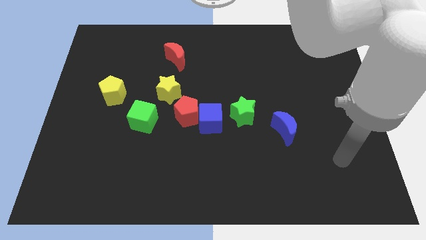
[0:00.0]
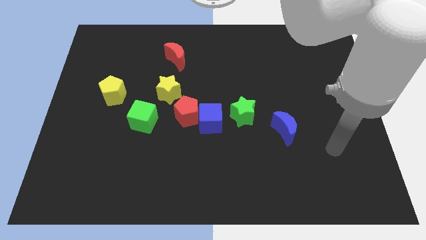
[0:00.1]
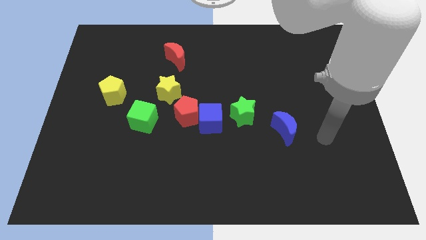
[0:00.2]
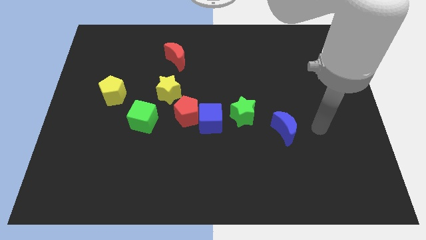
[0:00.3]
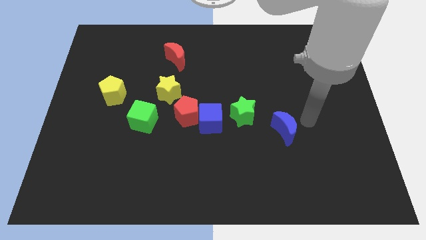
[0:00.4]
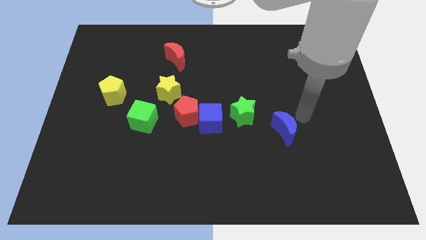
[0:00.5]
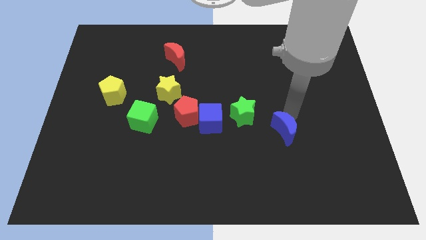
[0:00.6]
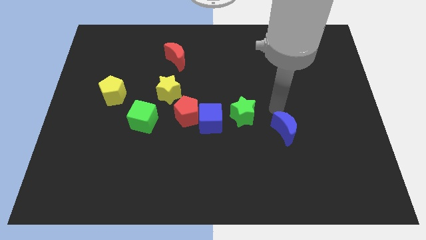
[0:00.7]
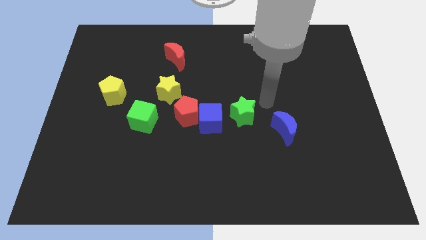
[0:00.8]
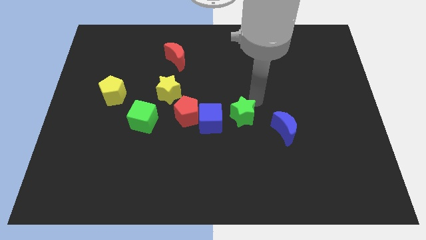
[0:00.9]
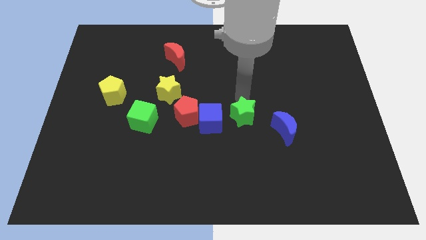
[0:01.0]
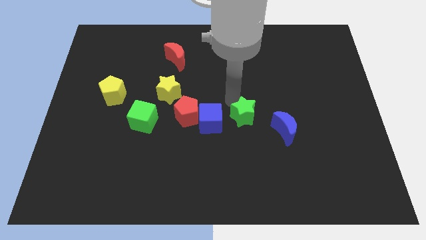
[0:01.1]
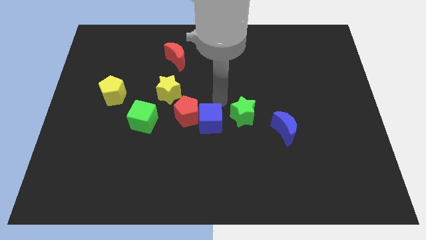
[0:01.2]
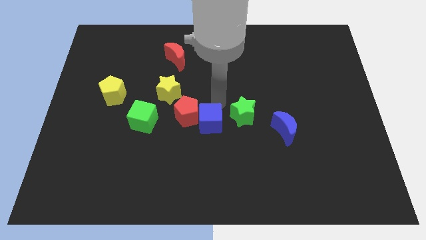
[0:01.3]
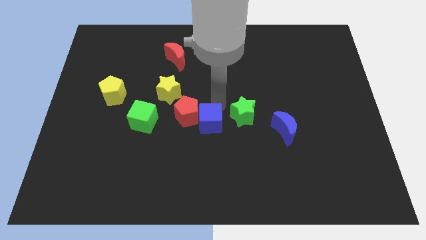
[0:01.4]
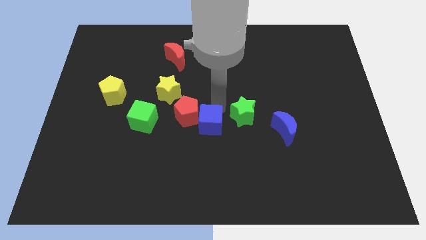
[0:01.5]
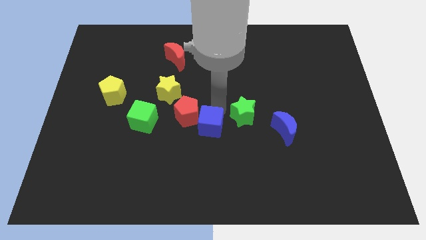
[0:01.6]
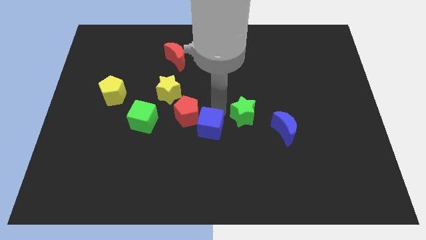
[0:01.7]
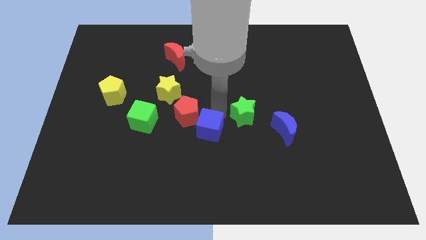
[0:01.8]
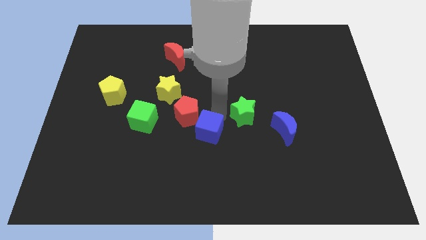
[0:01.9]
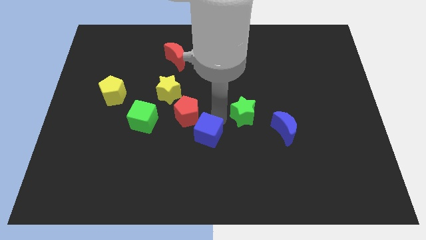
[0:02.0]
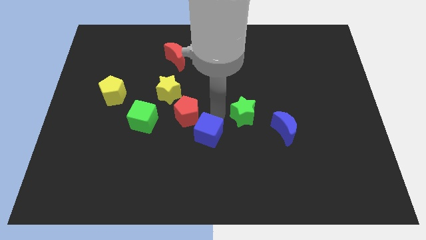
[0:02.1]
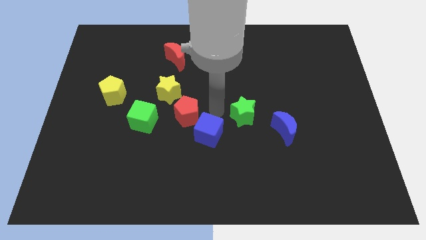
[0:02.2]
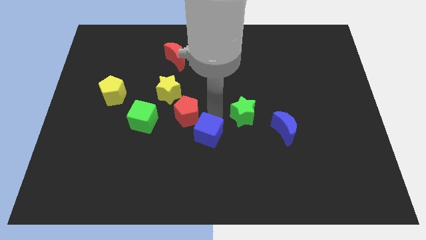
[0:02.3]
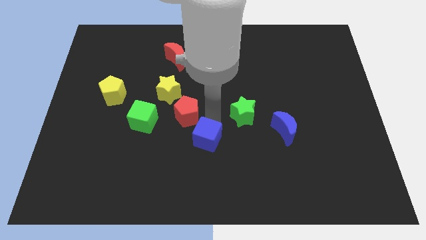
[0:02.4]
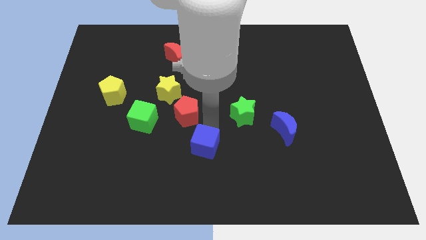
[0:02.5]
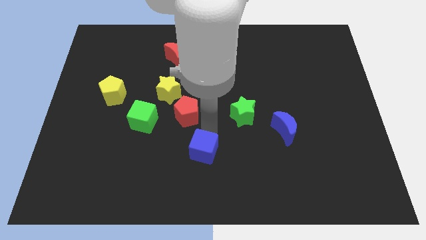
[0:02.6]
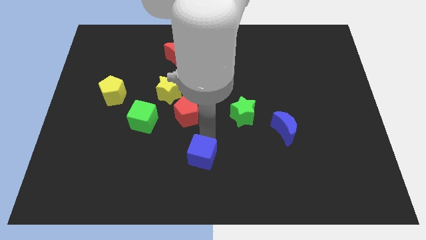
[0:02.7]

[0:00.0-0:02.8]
move the blue cube away from the red pentagon and green star

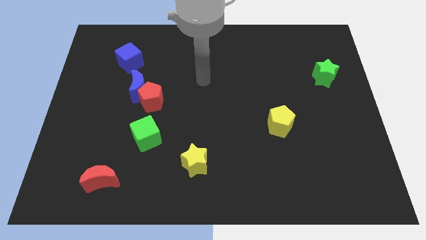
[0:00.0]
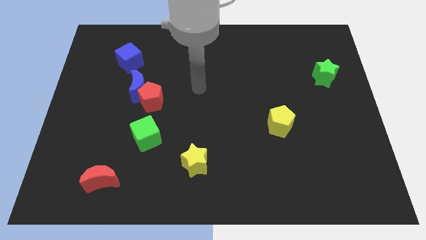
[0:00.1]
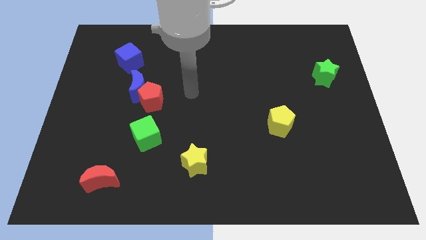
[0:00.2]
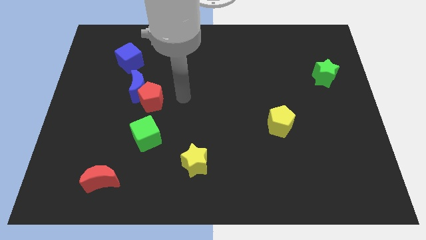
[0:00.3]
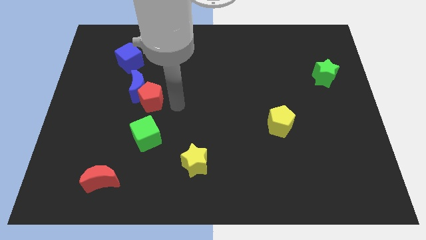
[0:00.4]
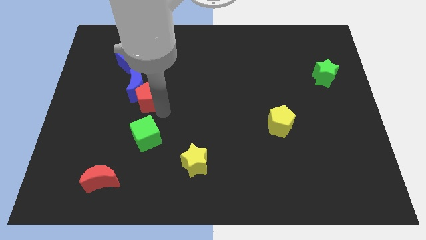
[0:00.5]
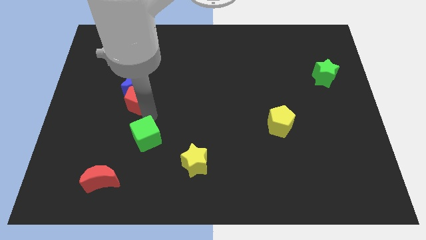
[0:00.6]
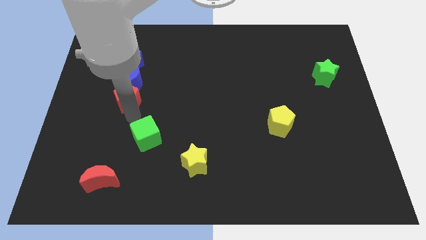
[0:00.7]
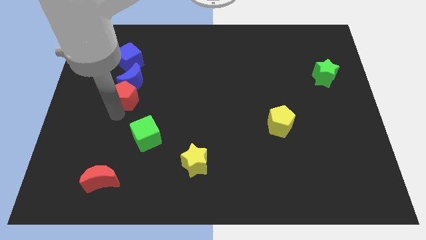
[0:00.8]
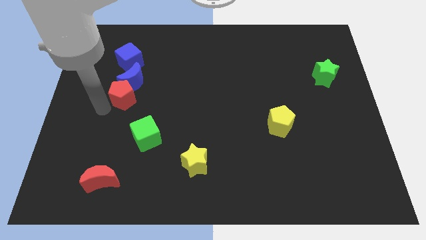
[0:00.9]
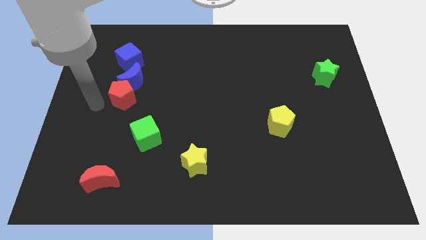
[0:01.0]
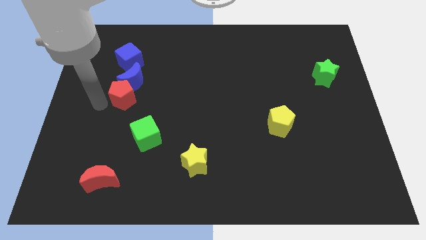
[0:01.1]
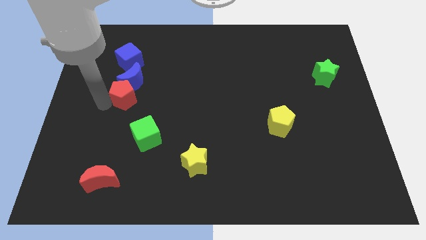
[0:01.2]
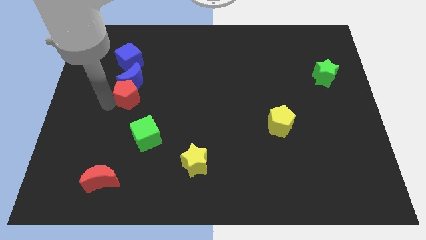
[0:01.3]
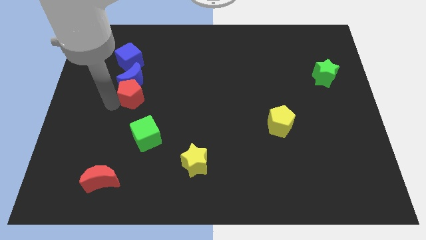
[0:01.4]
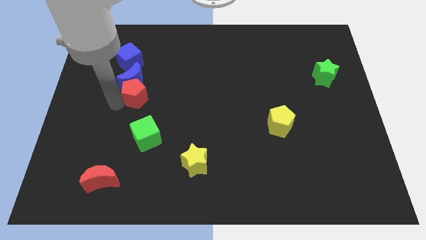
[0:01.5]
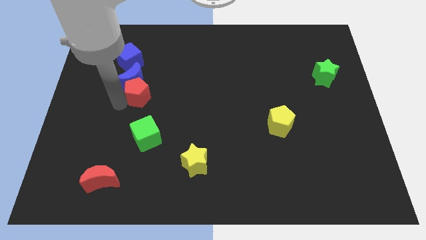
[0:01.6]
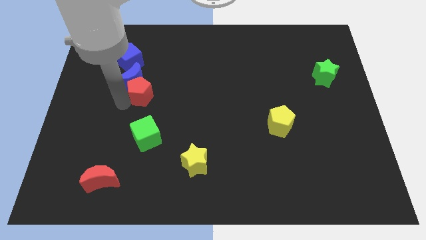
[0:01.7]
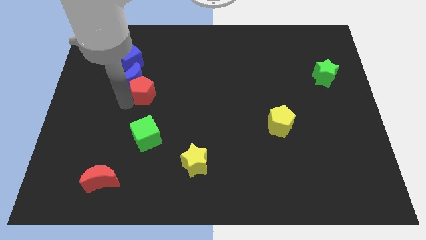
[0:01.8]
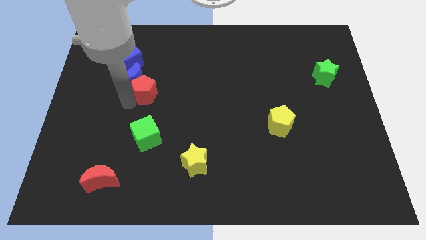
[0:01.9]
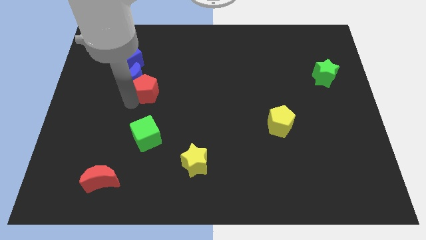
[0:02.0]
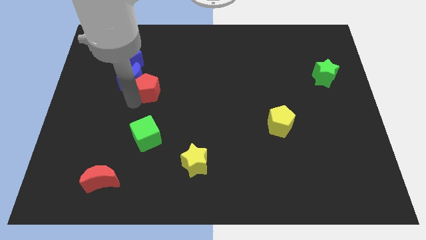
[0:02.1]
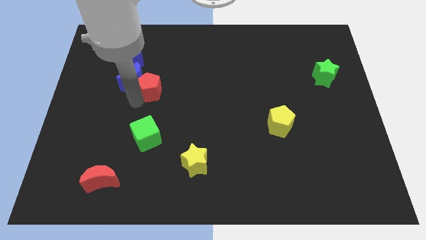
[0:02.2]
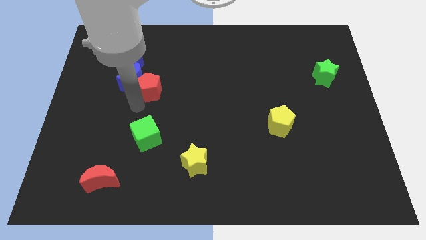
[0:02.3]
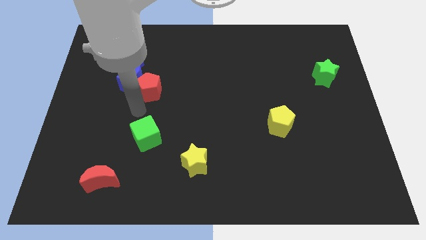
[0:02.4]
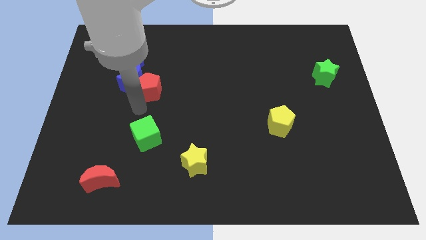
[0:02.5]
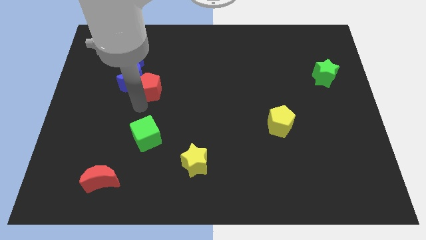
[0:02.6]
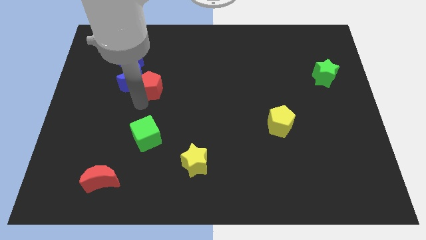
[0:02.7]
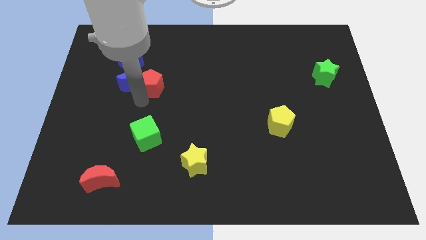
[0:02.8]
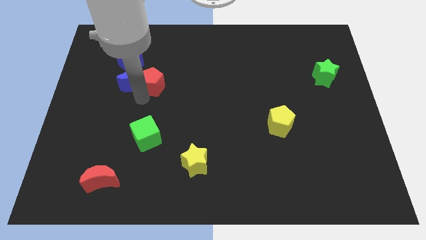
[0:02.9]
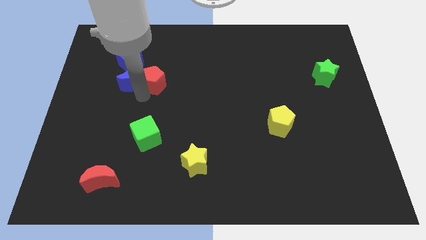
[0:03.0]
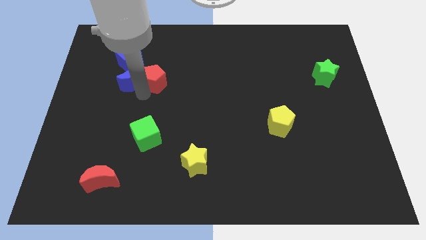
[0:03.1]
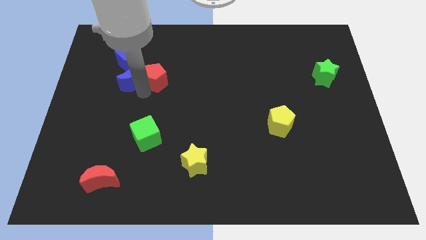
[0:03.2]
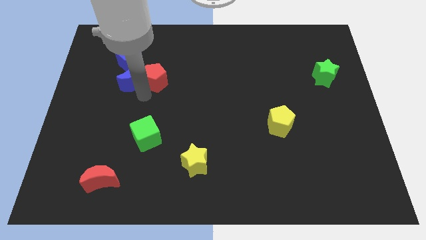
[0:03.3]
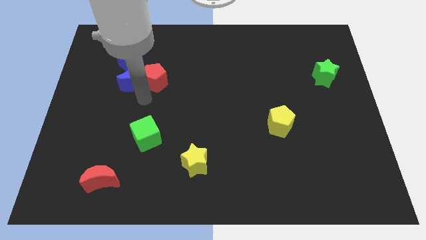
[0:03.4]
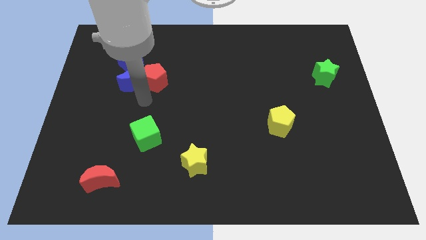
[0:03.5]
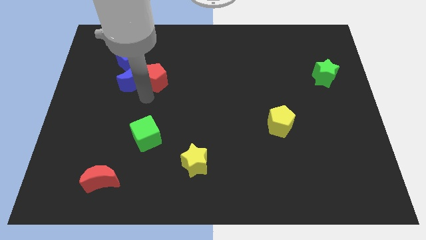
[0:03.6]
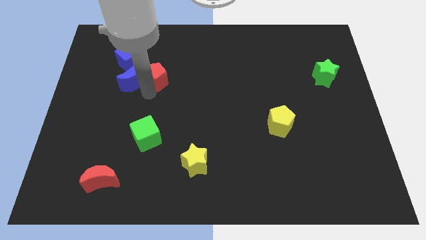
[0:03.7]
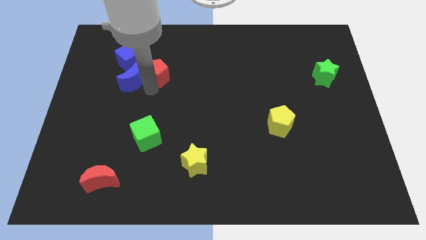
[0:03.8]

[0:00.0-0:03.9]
pull the red pentagon apart from the blue moon and green cube

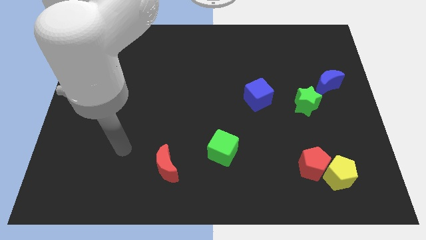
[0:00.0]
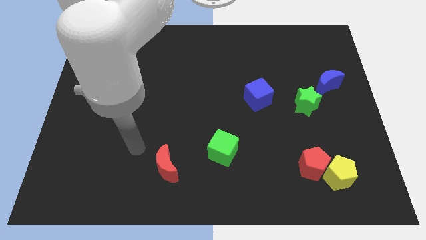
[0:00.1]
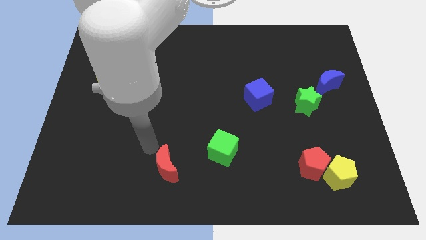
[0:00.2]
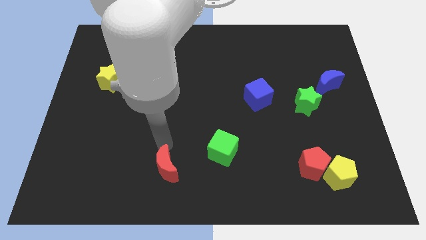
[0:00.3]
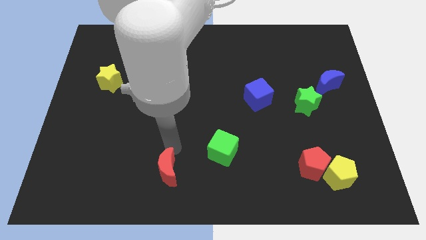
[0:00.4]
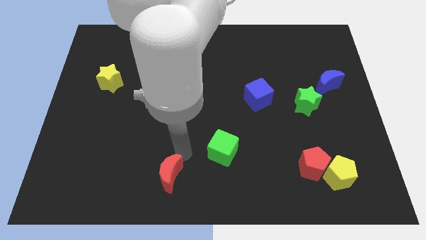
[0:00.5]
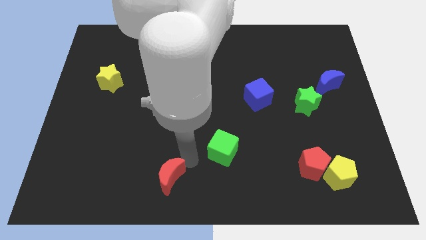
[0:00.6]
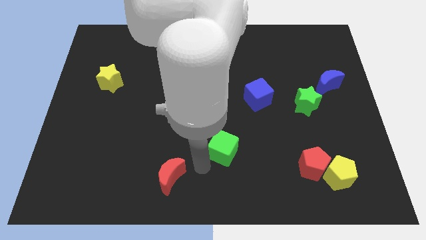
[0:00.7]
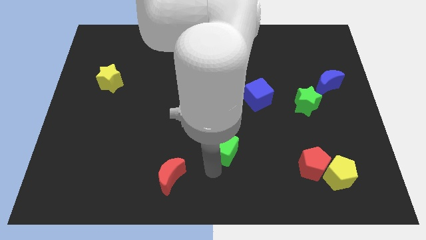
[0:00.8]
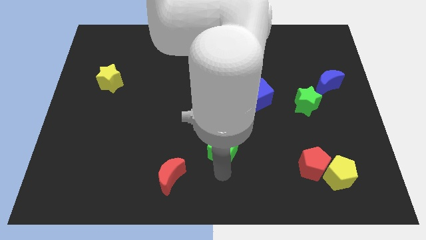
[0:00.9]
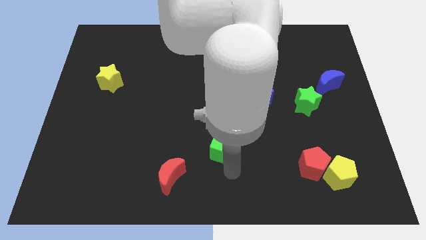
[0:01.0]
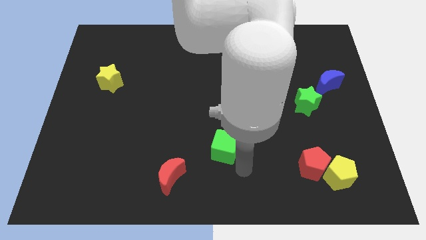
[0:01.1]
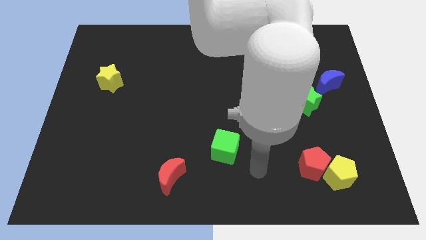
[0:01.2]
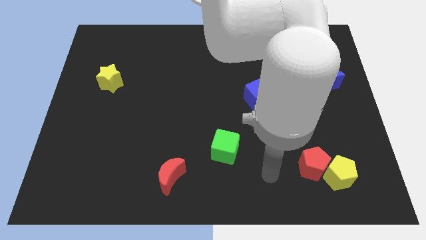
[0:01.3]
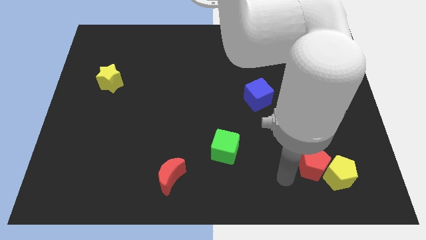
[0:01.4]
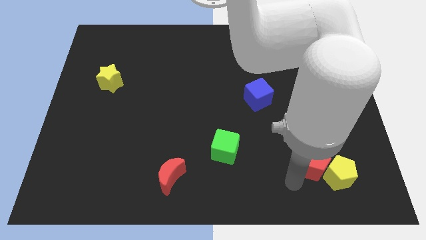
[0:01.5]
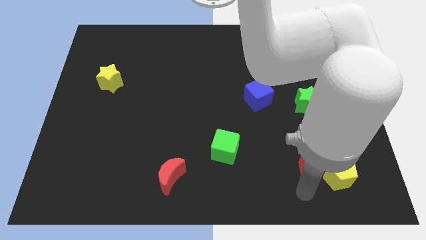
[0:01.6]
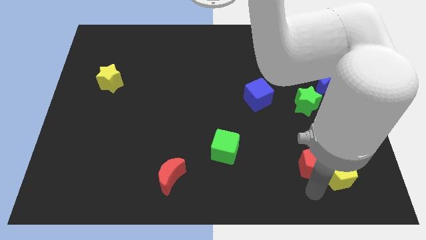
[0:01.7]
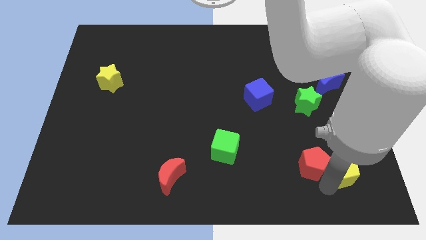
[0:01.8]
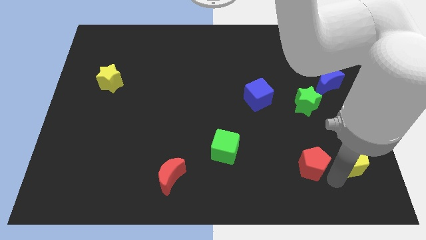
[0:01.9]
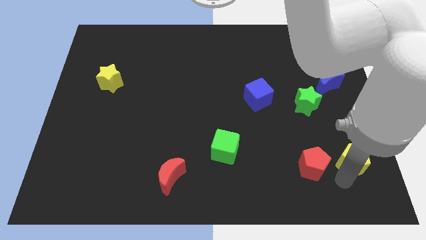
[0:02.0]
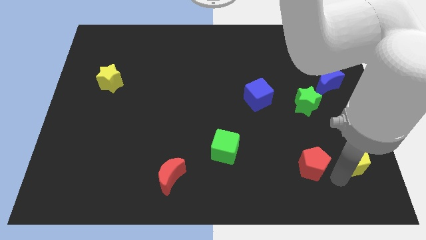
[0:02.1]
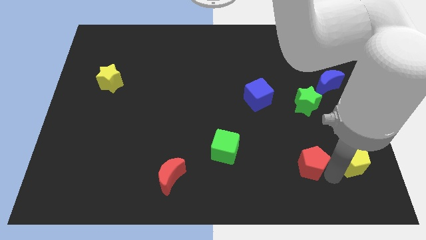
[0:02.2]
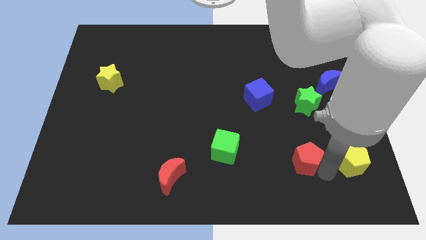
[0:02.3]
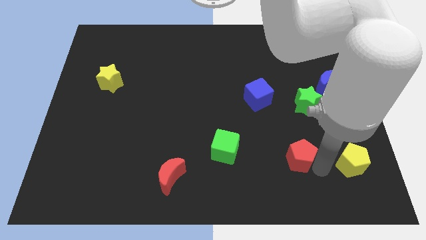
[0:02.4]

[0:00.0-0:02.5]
separate the red pentagon from the yellow pentagon

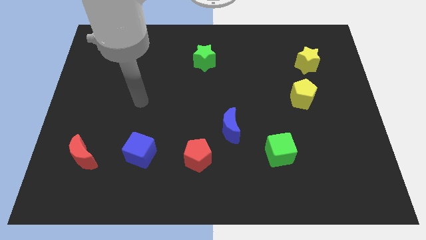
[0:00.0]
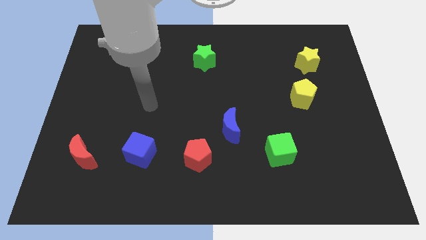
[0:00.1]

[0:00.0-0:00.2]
move the red pentagon away from the blue moon
